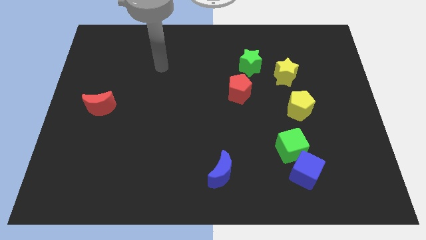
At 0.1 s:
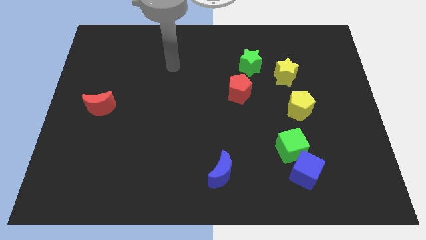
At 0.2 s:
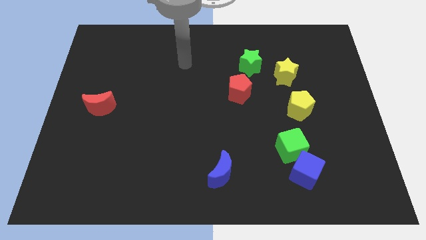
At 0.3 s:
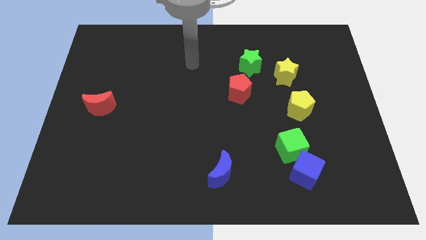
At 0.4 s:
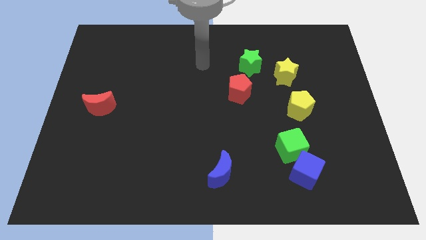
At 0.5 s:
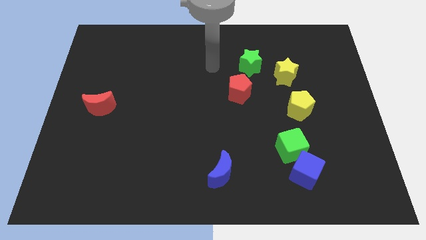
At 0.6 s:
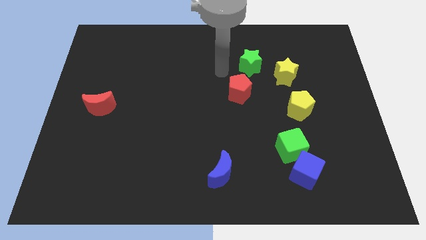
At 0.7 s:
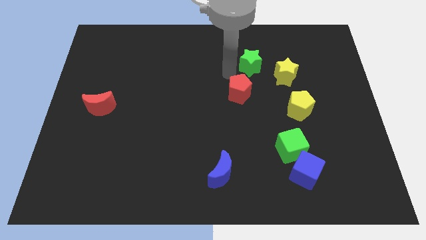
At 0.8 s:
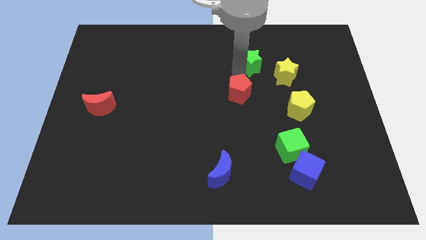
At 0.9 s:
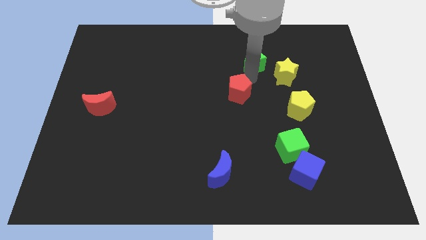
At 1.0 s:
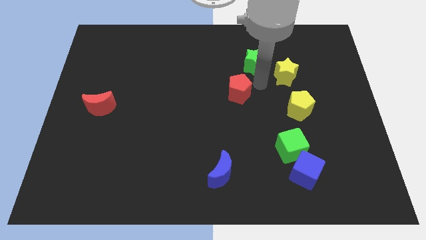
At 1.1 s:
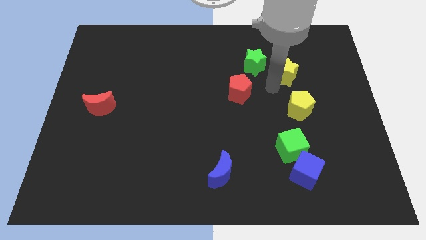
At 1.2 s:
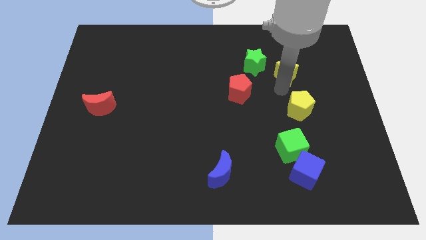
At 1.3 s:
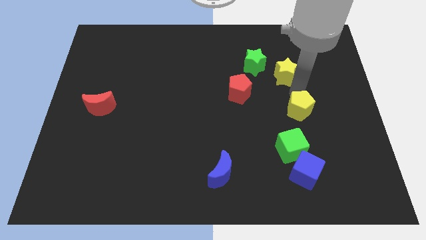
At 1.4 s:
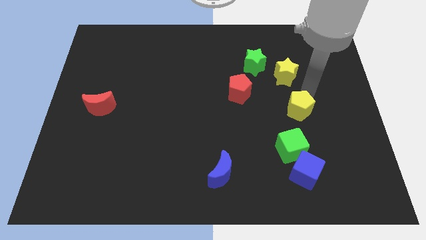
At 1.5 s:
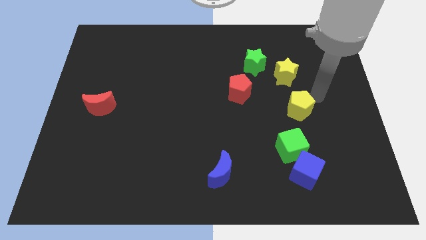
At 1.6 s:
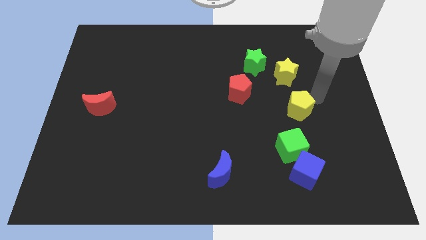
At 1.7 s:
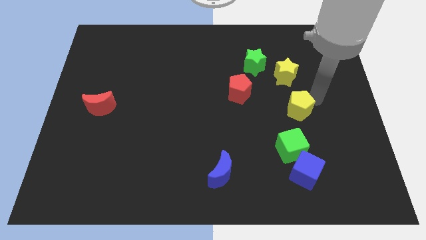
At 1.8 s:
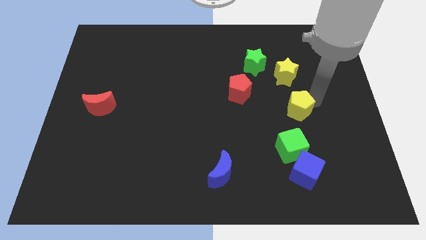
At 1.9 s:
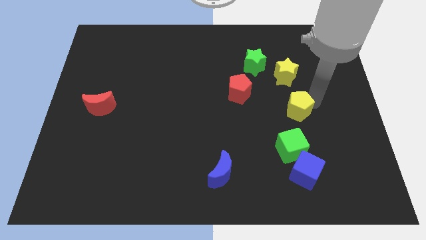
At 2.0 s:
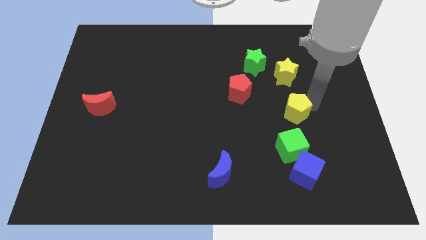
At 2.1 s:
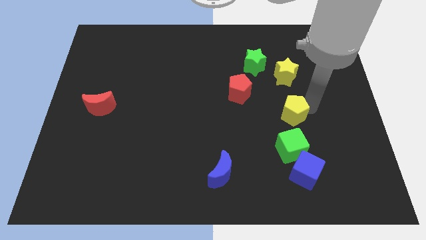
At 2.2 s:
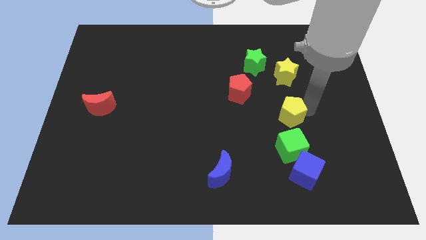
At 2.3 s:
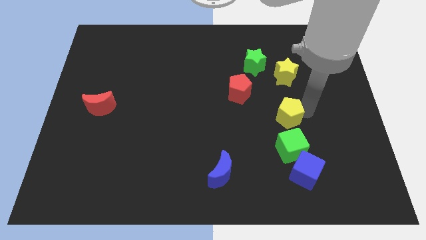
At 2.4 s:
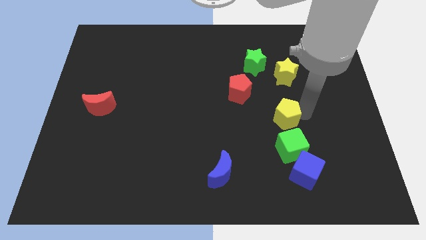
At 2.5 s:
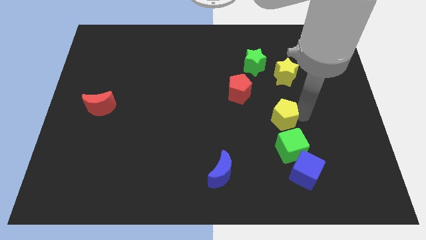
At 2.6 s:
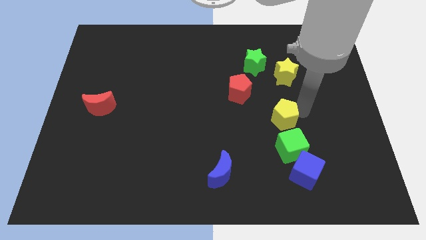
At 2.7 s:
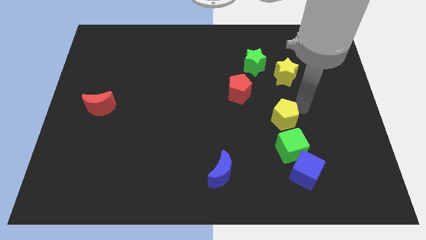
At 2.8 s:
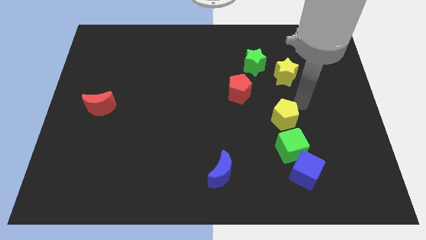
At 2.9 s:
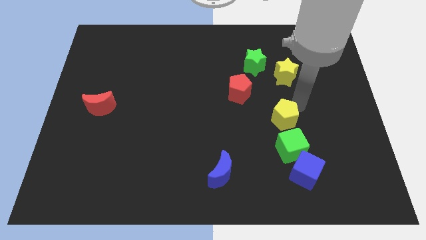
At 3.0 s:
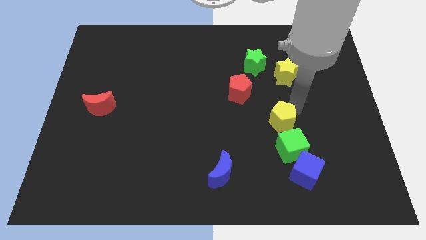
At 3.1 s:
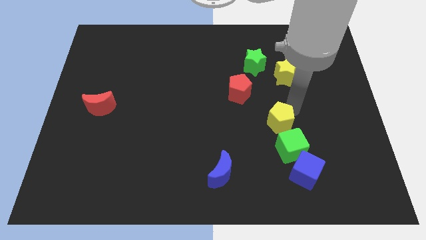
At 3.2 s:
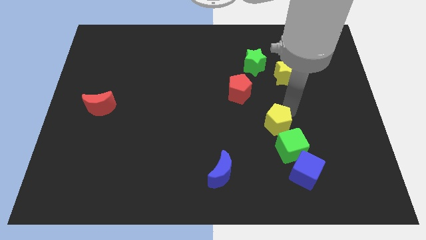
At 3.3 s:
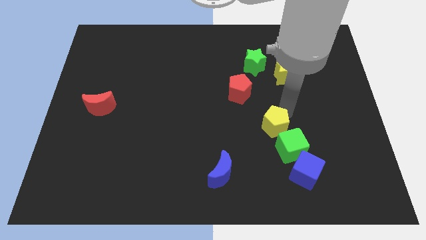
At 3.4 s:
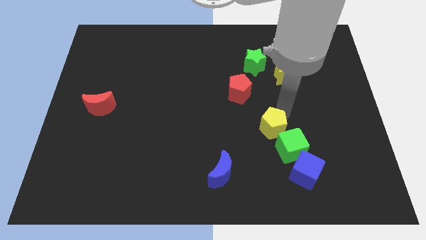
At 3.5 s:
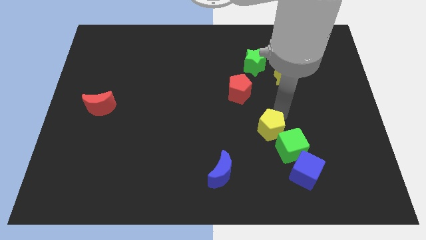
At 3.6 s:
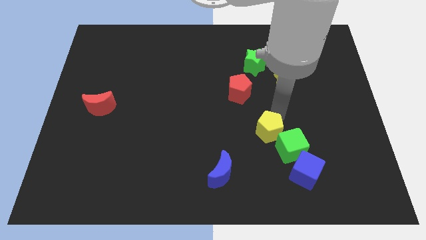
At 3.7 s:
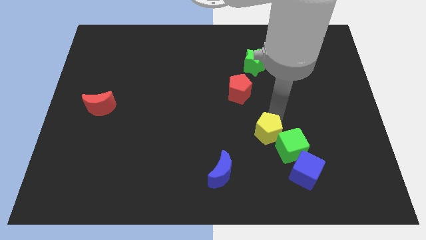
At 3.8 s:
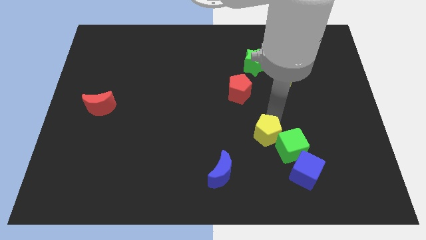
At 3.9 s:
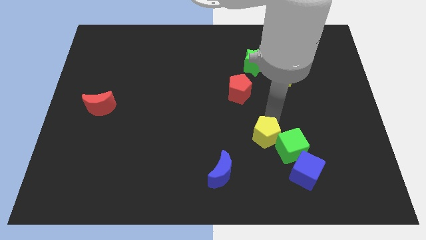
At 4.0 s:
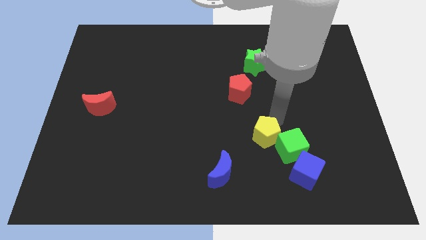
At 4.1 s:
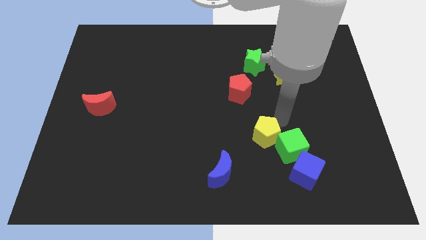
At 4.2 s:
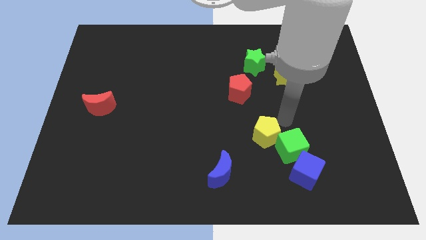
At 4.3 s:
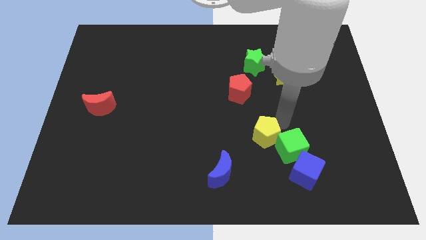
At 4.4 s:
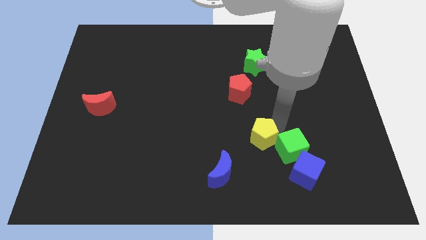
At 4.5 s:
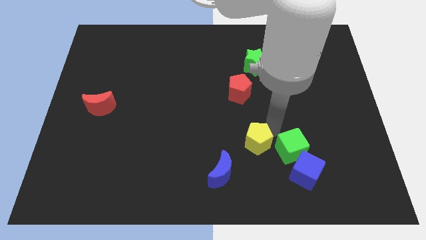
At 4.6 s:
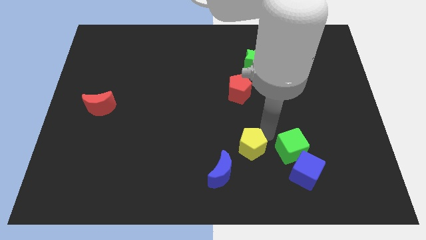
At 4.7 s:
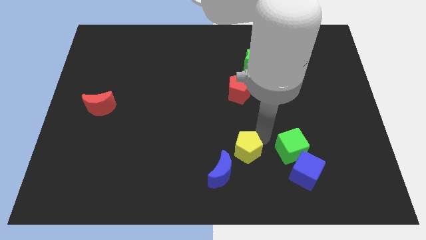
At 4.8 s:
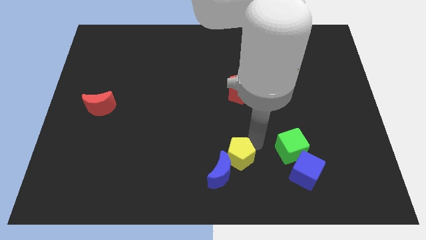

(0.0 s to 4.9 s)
slide the yellow pentagon close to the blue moon

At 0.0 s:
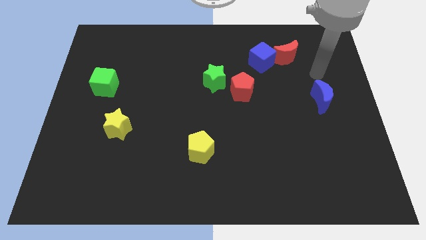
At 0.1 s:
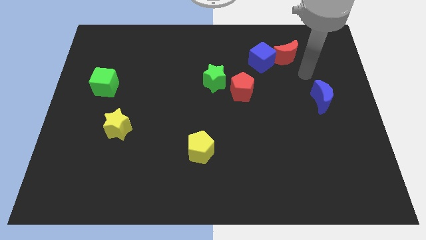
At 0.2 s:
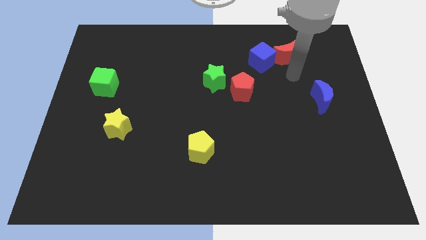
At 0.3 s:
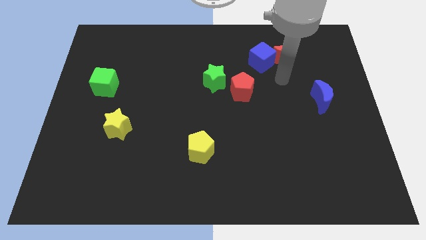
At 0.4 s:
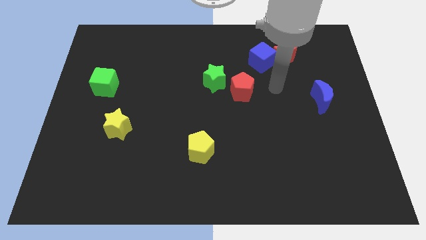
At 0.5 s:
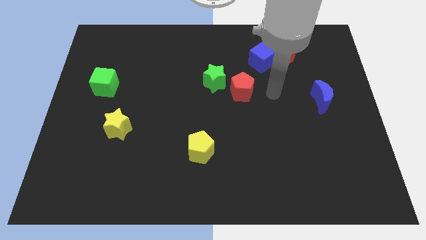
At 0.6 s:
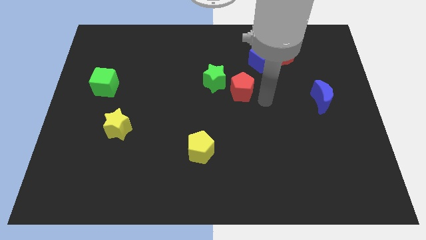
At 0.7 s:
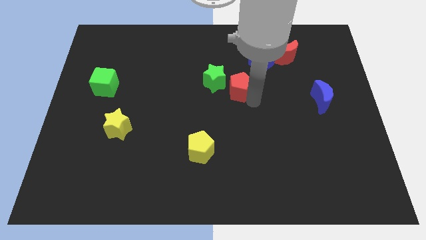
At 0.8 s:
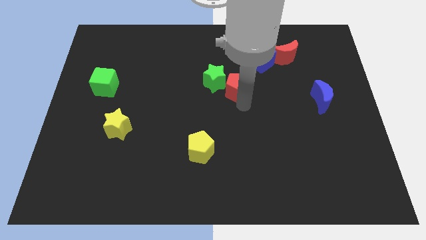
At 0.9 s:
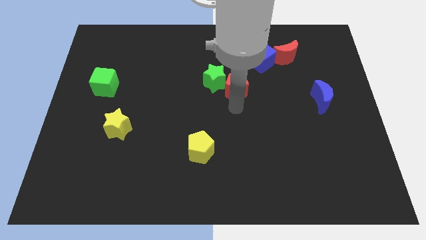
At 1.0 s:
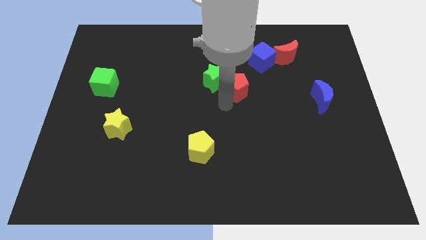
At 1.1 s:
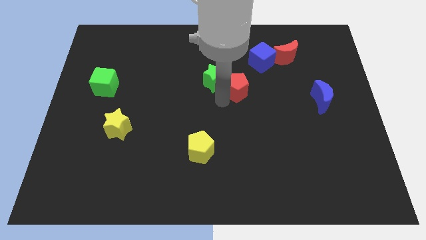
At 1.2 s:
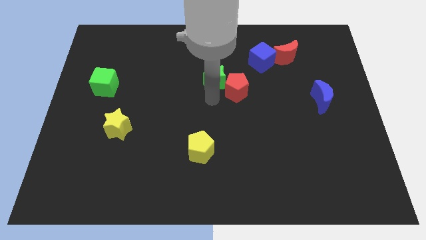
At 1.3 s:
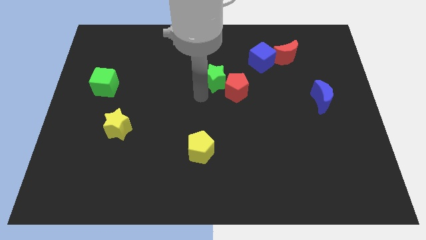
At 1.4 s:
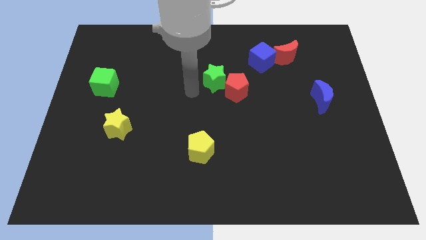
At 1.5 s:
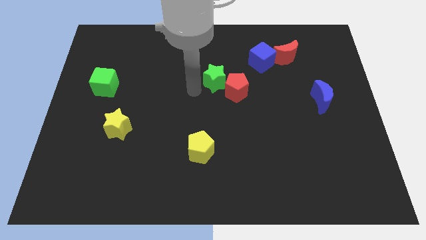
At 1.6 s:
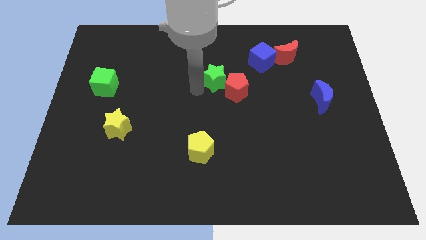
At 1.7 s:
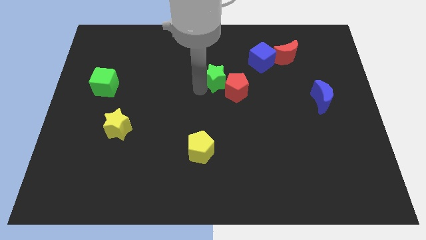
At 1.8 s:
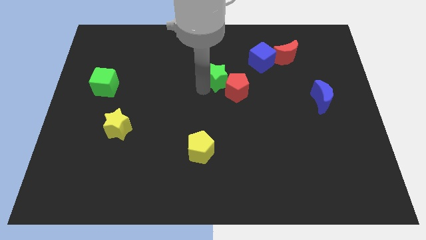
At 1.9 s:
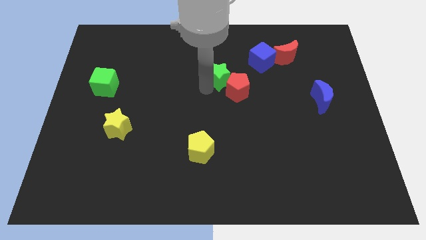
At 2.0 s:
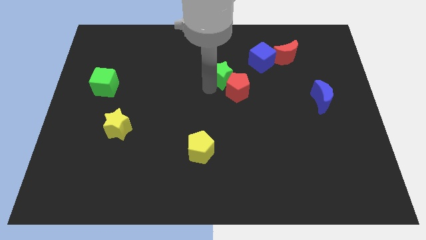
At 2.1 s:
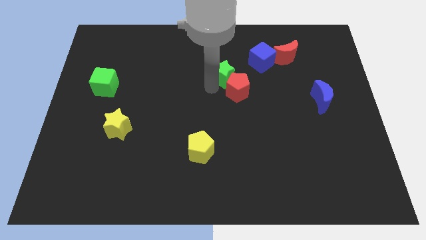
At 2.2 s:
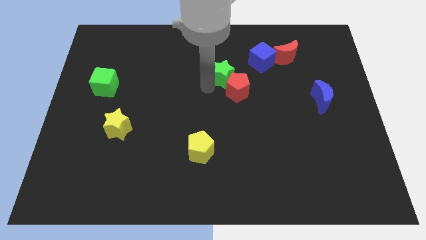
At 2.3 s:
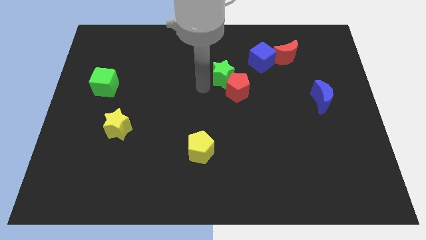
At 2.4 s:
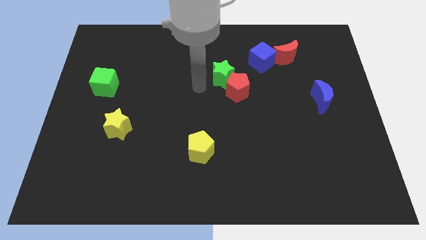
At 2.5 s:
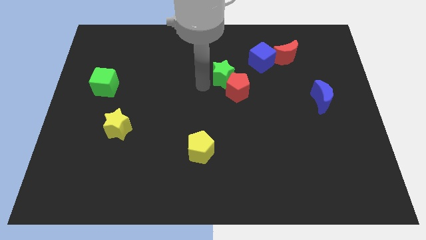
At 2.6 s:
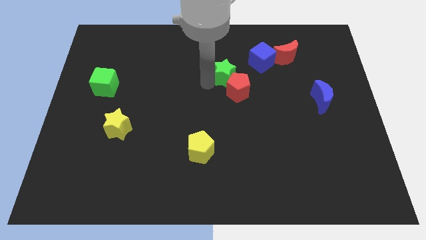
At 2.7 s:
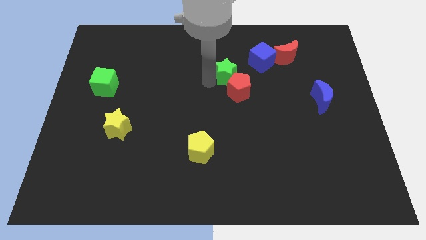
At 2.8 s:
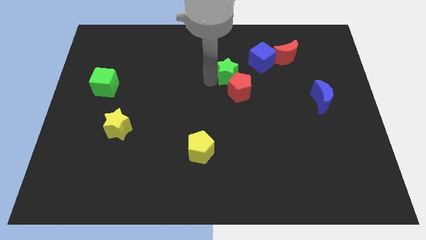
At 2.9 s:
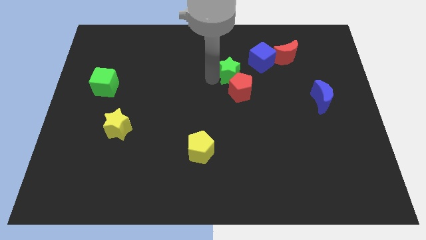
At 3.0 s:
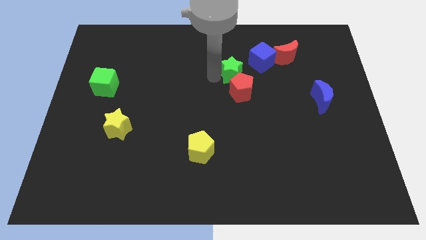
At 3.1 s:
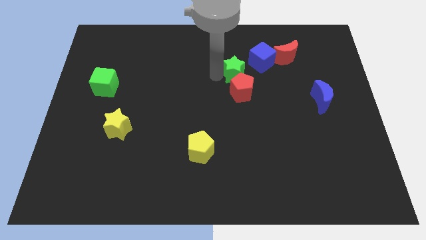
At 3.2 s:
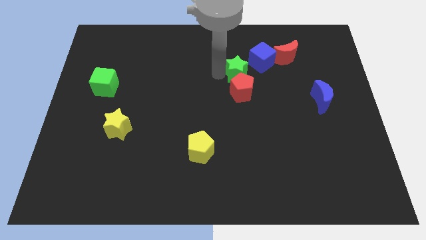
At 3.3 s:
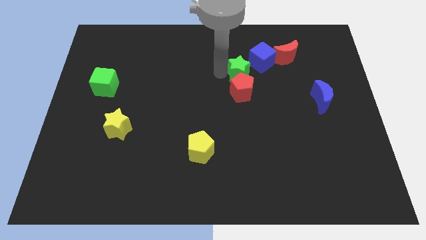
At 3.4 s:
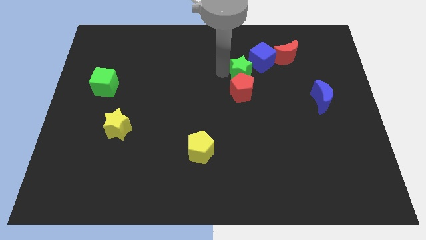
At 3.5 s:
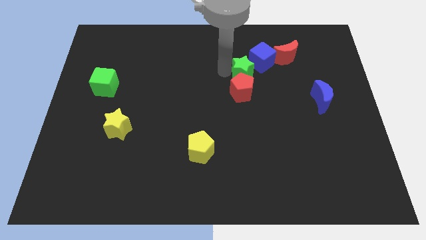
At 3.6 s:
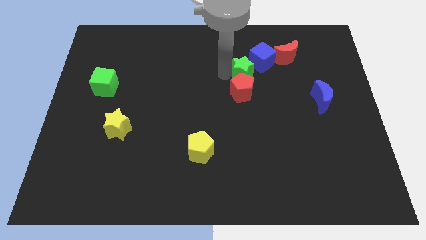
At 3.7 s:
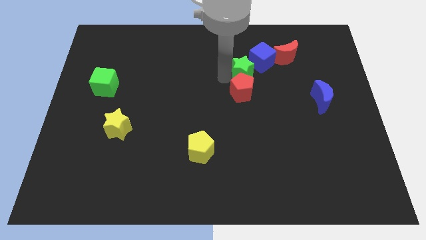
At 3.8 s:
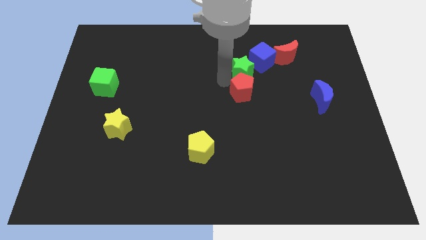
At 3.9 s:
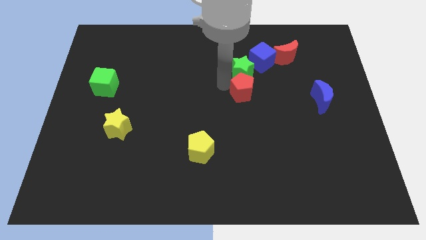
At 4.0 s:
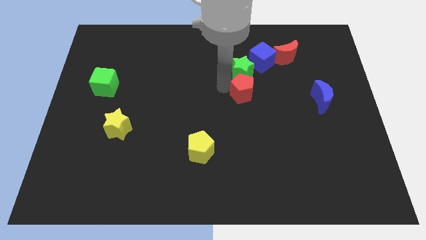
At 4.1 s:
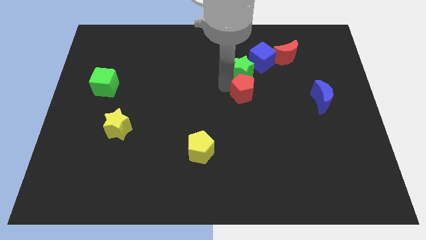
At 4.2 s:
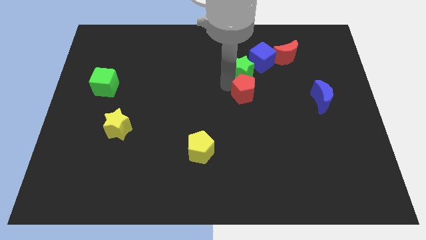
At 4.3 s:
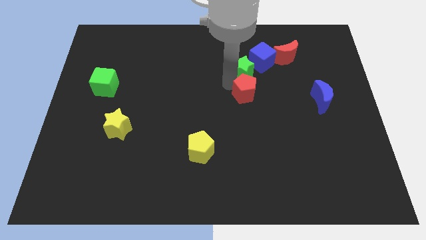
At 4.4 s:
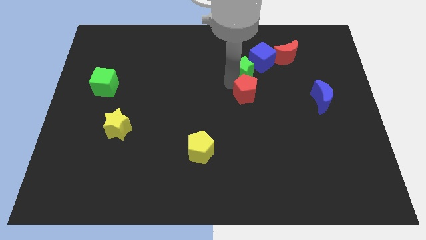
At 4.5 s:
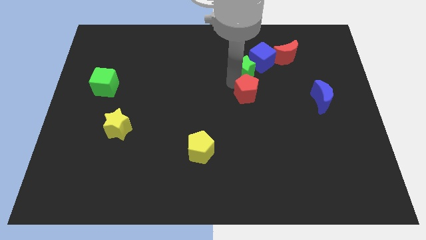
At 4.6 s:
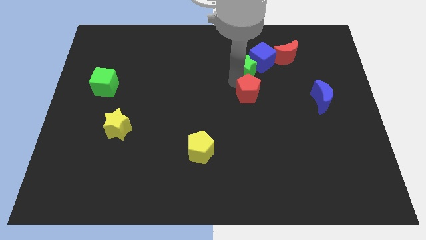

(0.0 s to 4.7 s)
put the green star next to the blue cube
